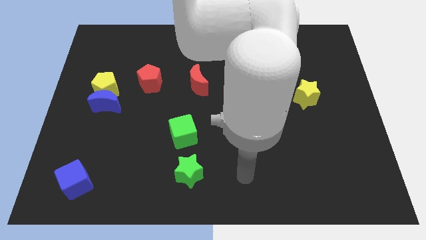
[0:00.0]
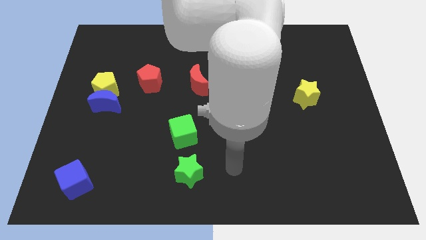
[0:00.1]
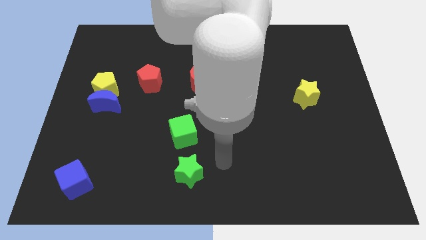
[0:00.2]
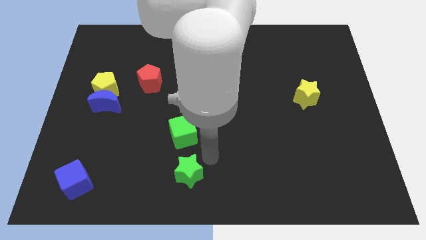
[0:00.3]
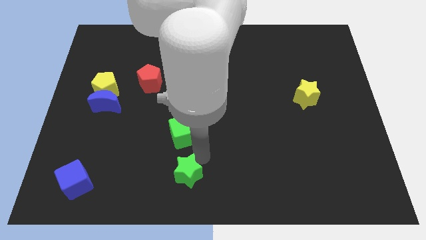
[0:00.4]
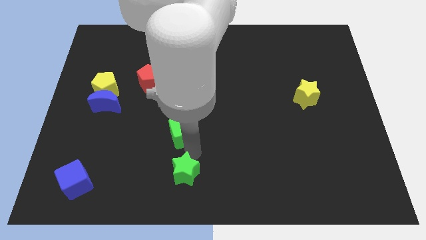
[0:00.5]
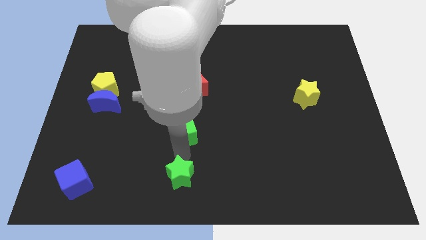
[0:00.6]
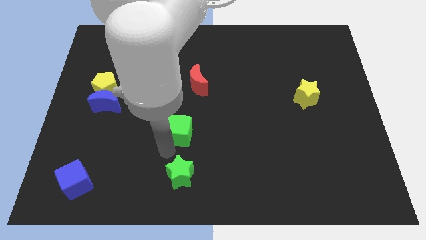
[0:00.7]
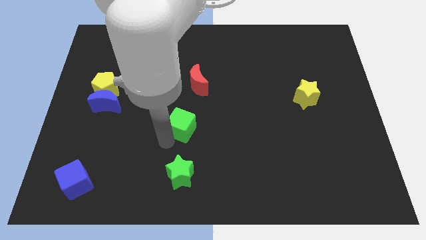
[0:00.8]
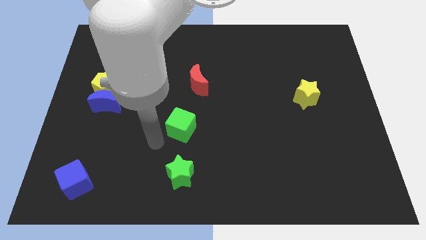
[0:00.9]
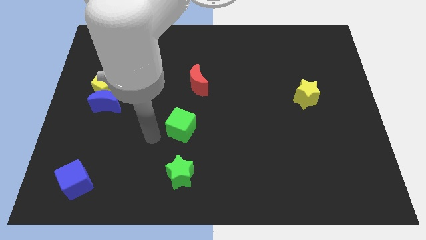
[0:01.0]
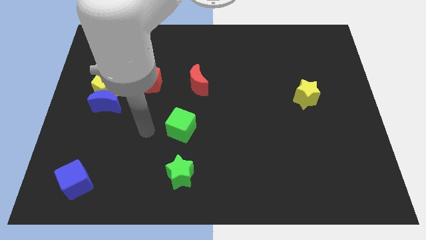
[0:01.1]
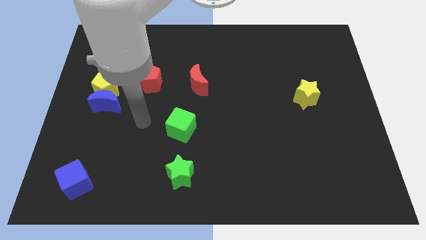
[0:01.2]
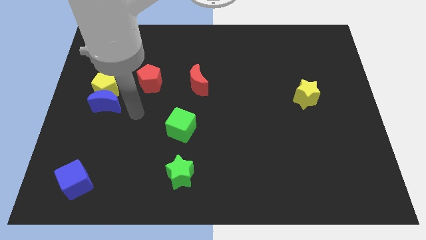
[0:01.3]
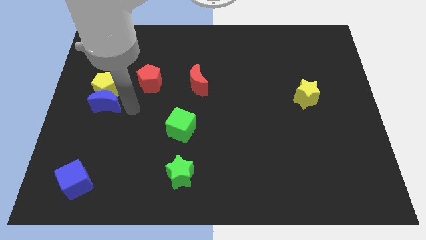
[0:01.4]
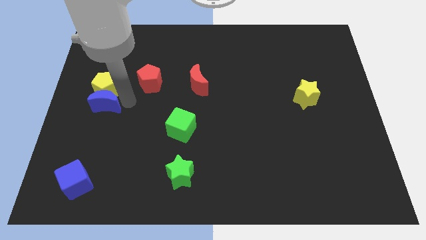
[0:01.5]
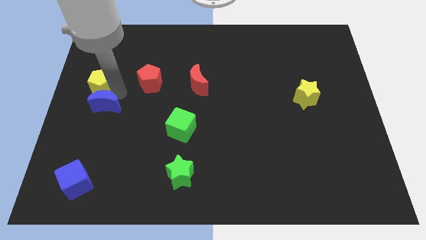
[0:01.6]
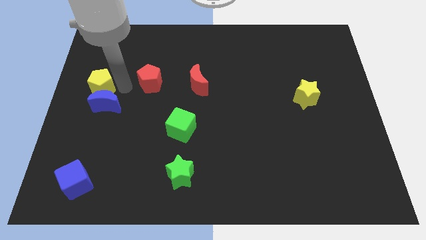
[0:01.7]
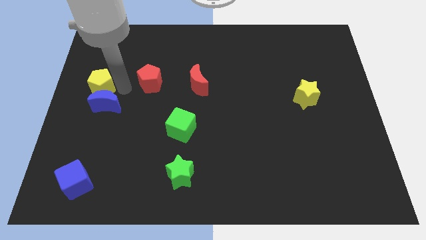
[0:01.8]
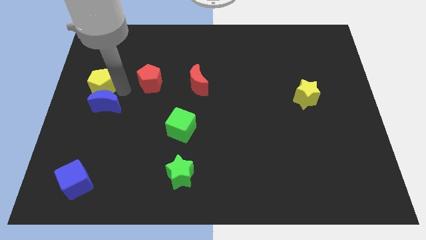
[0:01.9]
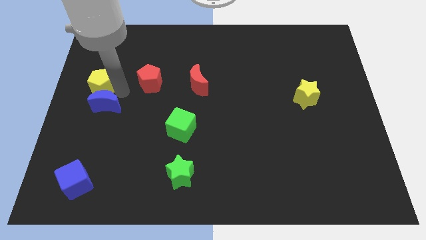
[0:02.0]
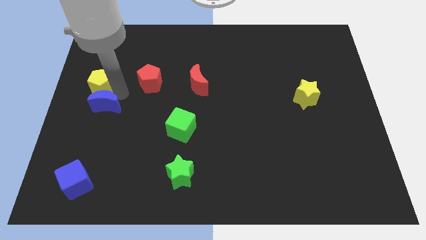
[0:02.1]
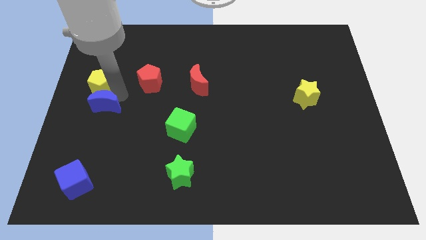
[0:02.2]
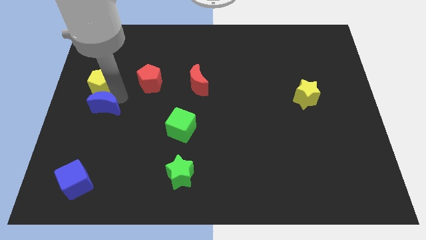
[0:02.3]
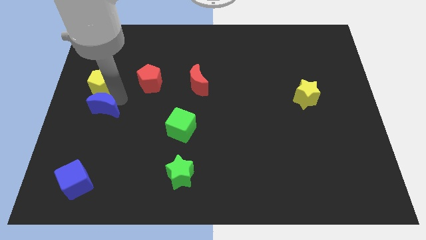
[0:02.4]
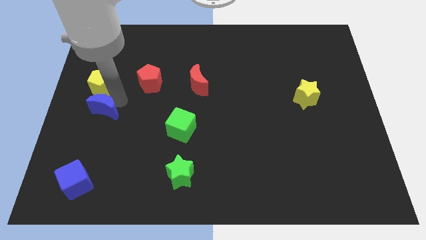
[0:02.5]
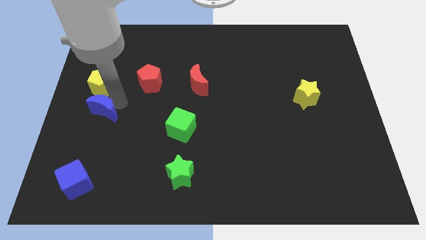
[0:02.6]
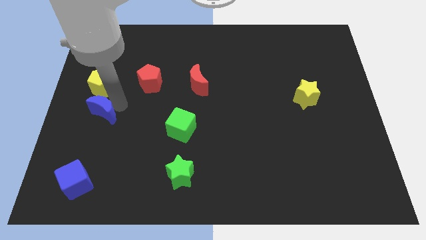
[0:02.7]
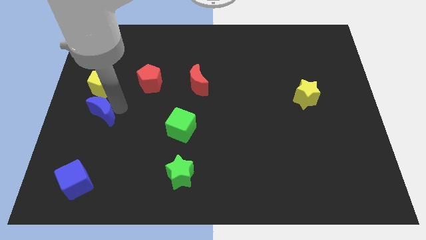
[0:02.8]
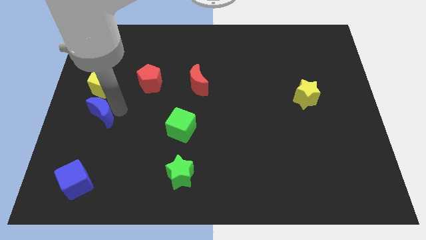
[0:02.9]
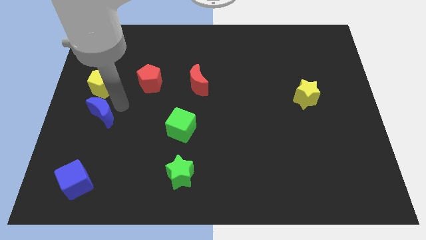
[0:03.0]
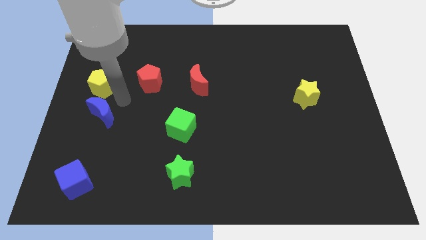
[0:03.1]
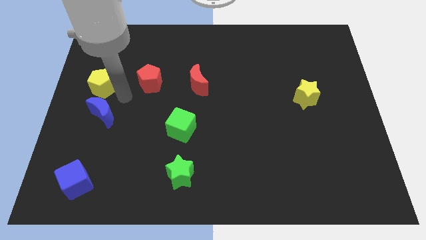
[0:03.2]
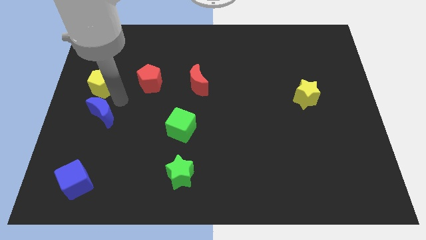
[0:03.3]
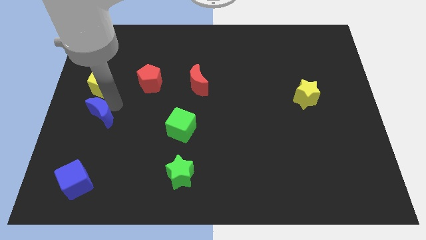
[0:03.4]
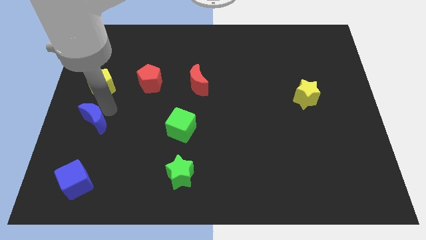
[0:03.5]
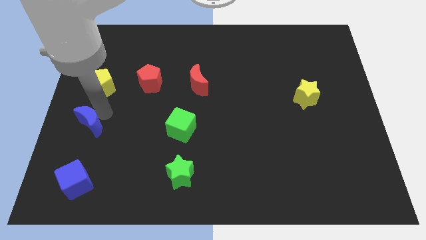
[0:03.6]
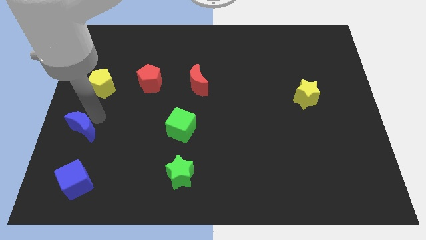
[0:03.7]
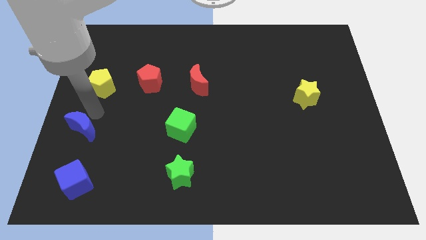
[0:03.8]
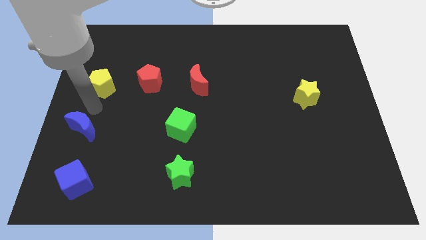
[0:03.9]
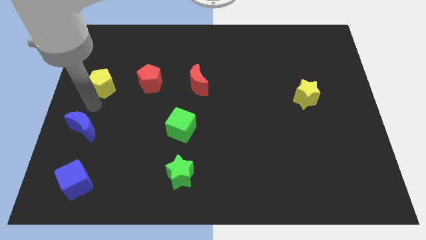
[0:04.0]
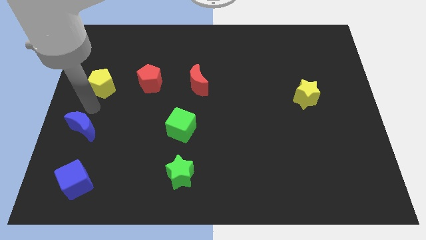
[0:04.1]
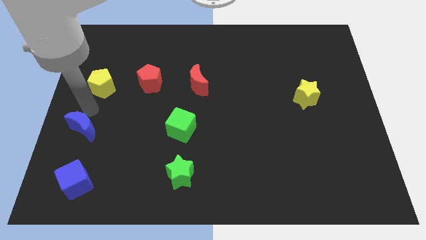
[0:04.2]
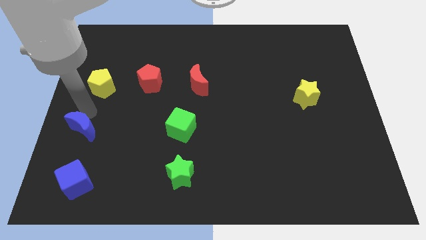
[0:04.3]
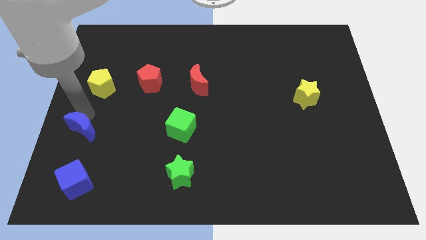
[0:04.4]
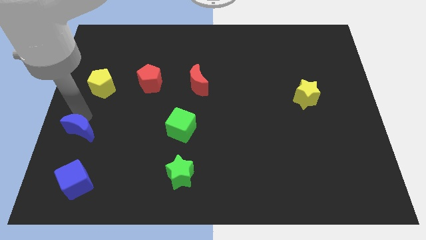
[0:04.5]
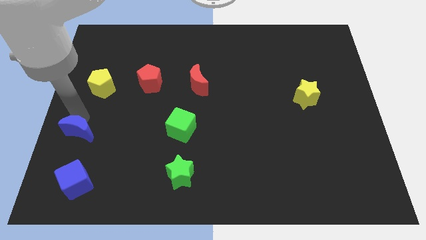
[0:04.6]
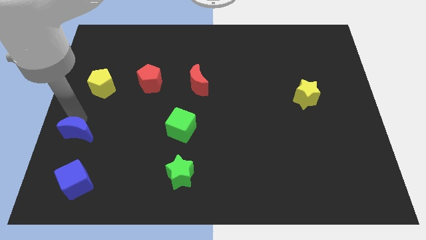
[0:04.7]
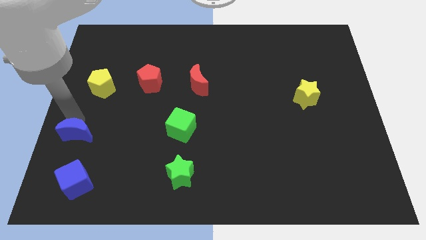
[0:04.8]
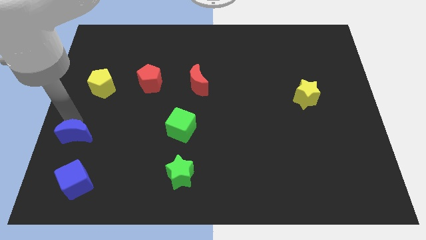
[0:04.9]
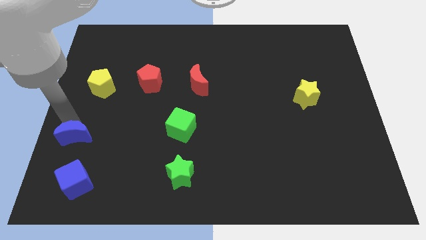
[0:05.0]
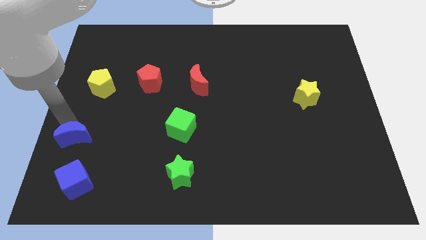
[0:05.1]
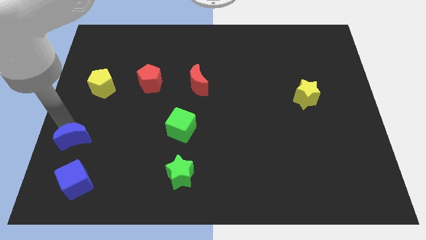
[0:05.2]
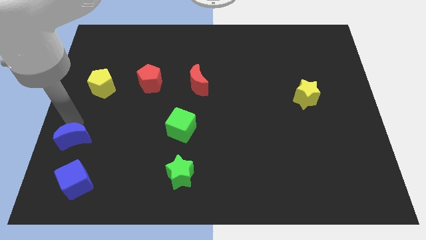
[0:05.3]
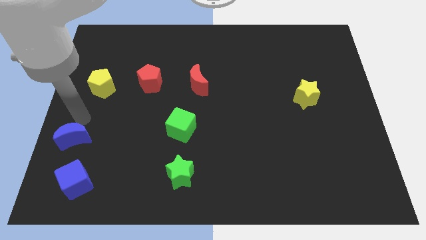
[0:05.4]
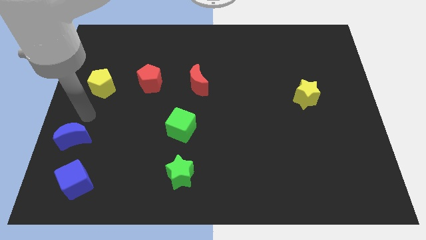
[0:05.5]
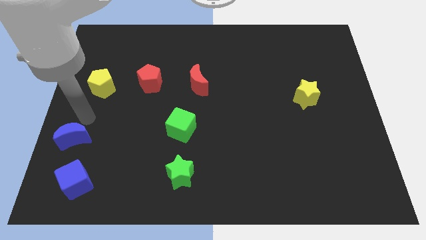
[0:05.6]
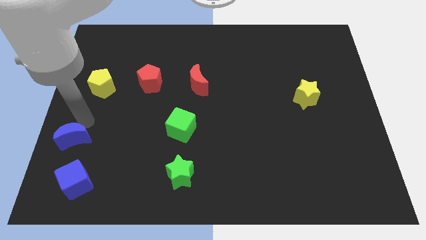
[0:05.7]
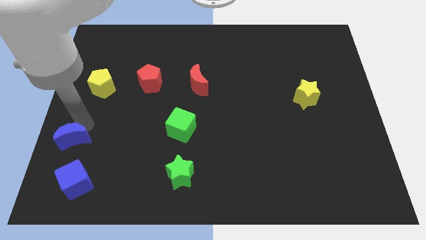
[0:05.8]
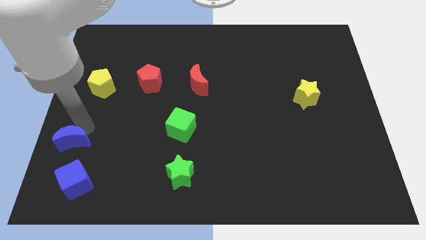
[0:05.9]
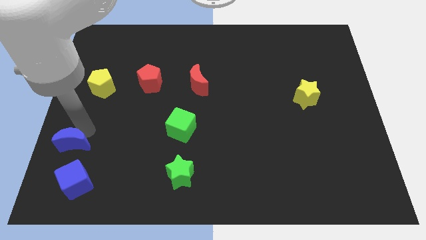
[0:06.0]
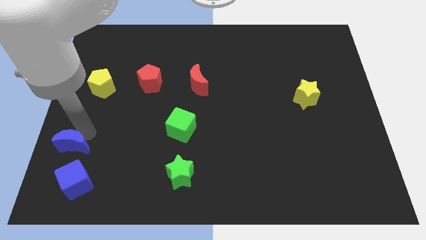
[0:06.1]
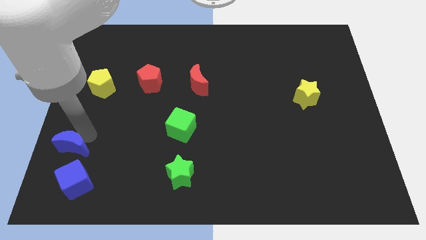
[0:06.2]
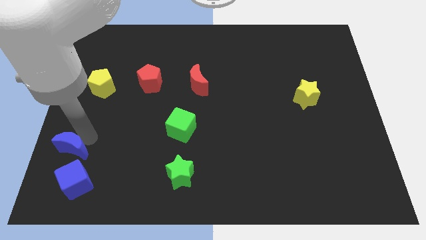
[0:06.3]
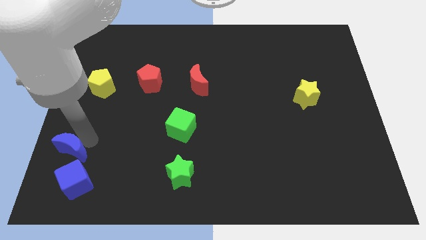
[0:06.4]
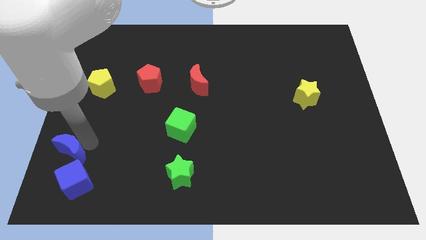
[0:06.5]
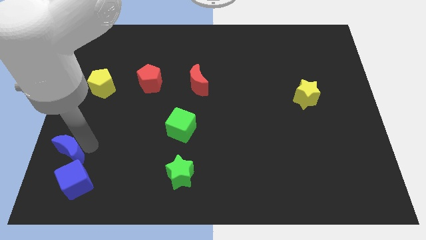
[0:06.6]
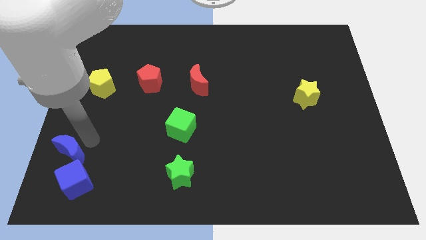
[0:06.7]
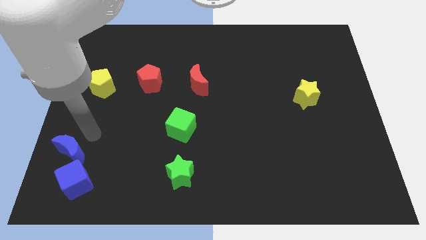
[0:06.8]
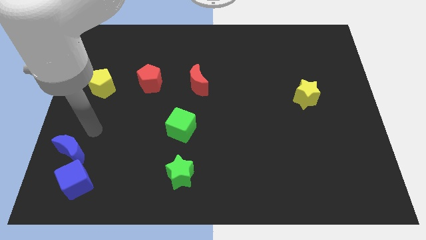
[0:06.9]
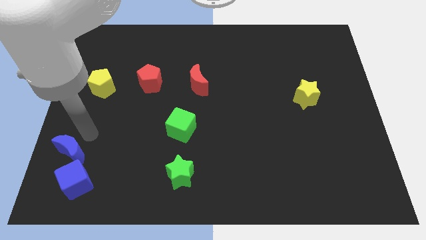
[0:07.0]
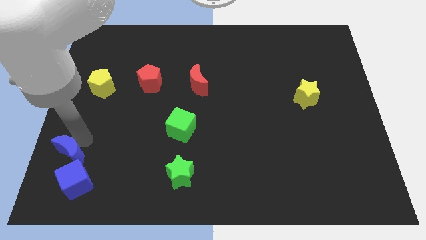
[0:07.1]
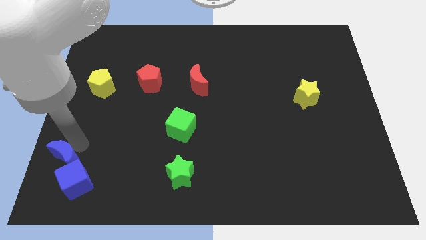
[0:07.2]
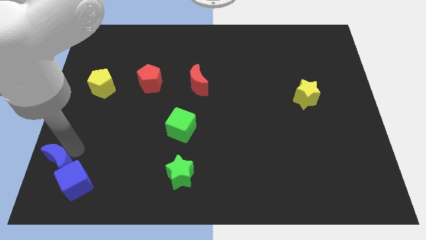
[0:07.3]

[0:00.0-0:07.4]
move the blue moon to the bottom left
